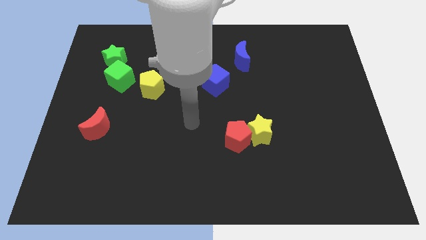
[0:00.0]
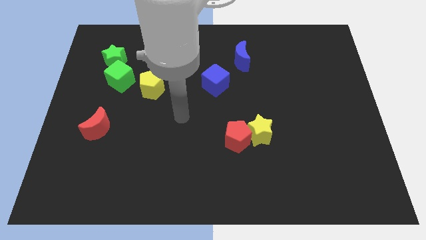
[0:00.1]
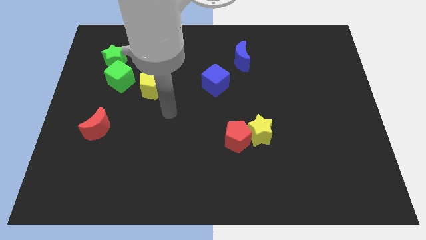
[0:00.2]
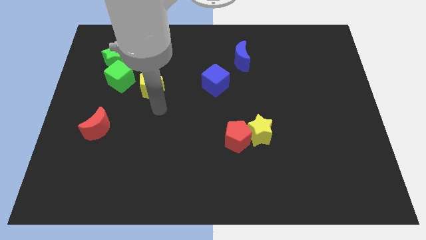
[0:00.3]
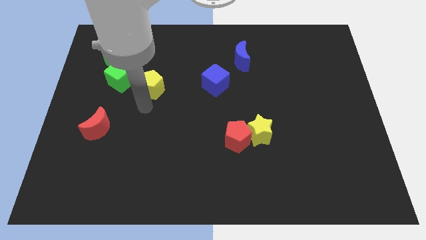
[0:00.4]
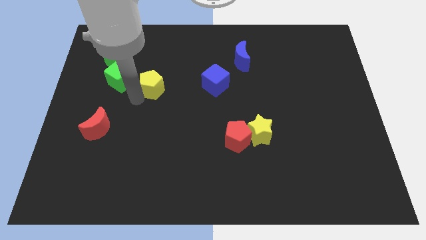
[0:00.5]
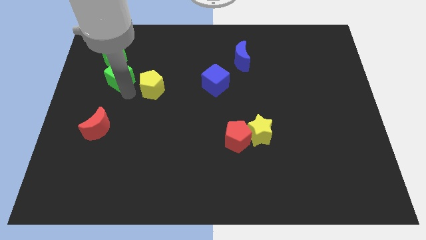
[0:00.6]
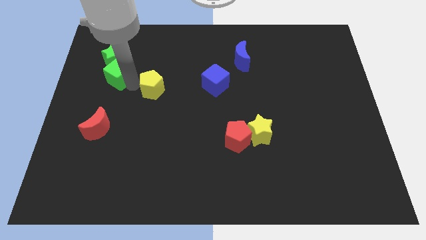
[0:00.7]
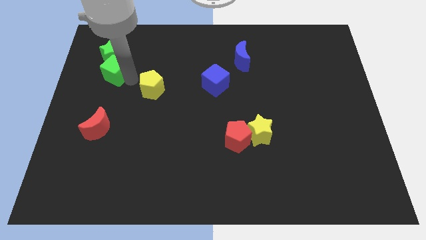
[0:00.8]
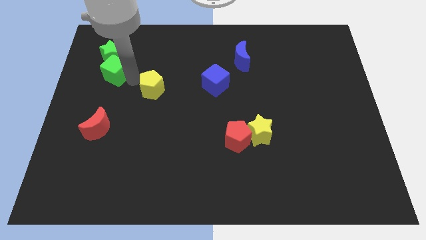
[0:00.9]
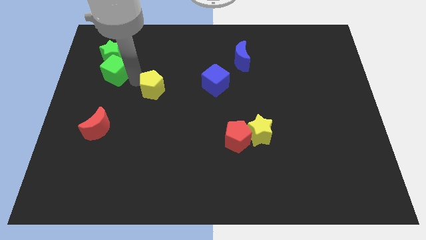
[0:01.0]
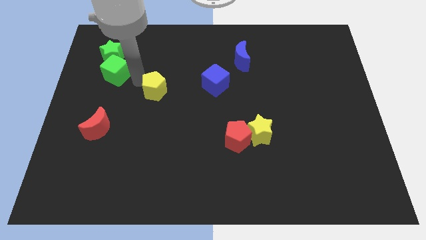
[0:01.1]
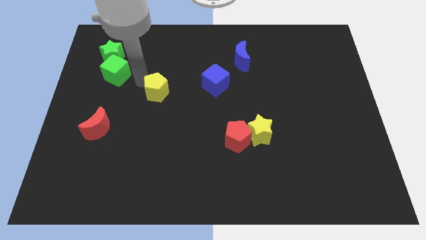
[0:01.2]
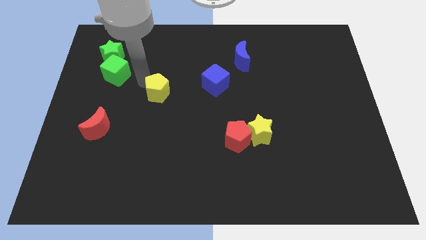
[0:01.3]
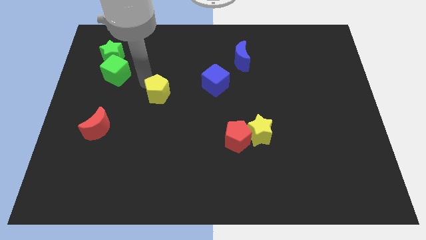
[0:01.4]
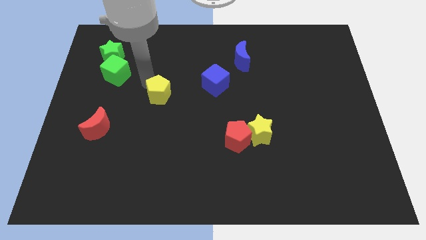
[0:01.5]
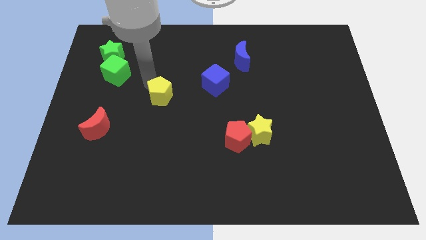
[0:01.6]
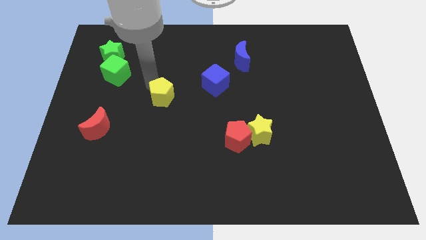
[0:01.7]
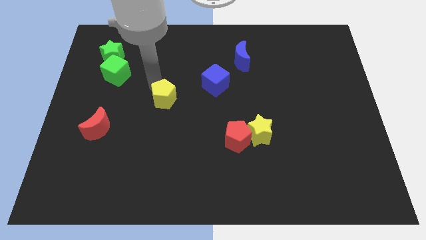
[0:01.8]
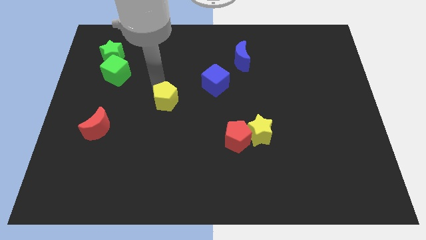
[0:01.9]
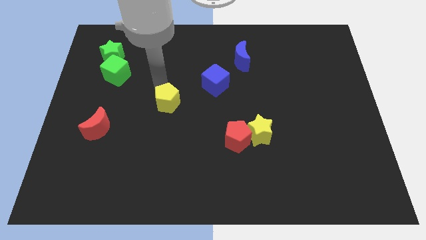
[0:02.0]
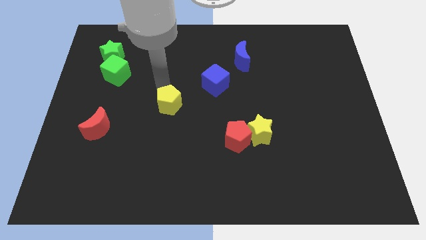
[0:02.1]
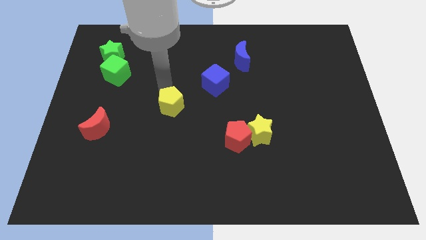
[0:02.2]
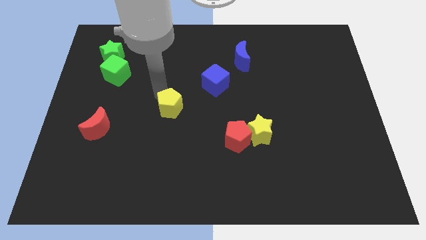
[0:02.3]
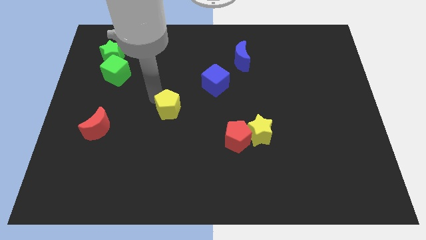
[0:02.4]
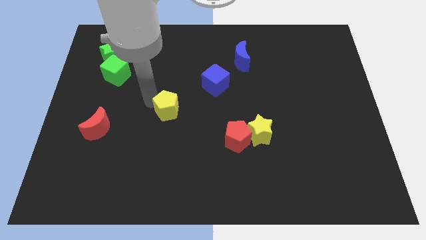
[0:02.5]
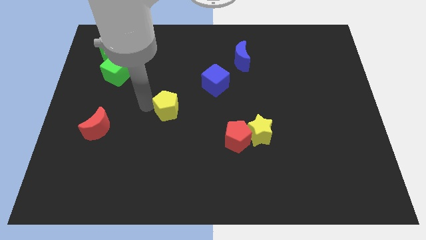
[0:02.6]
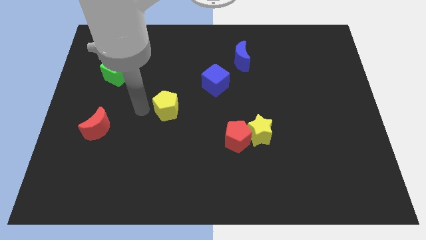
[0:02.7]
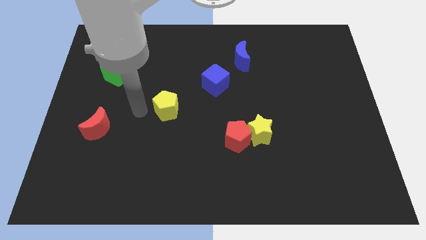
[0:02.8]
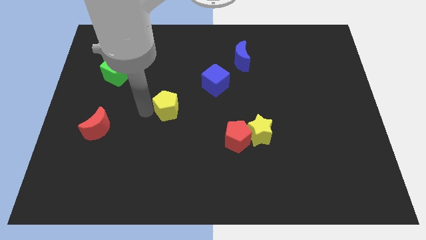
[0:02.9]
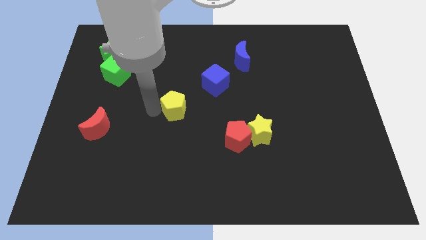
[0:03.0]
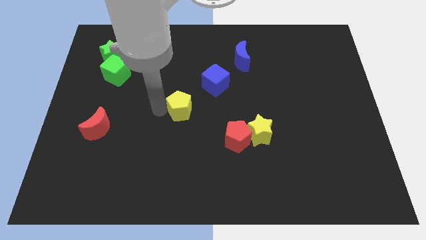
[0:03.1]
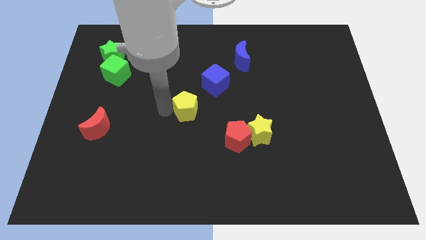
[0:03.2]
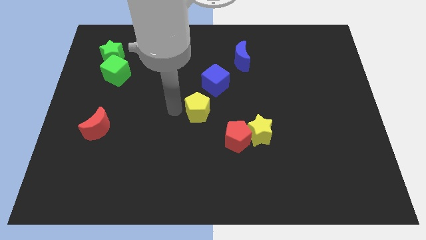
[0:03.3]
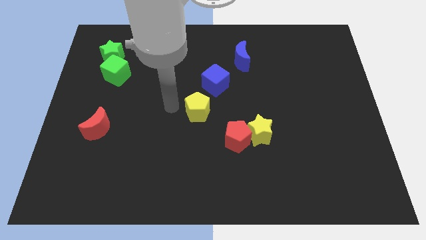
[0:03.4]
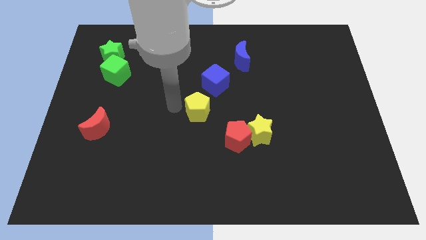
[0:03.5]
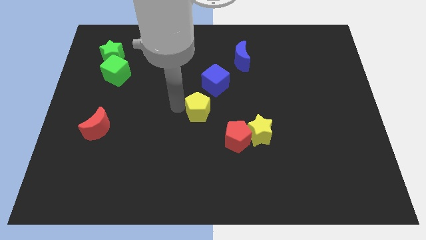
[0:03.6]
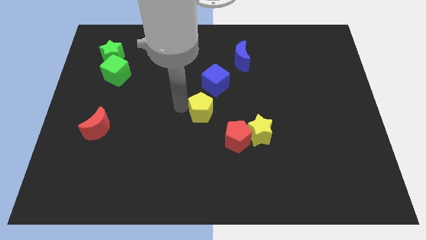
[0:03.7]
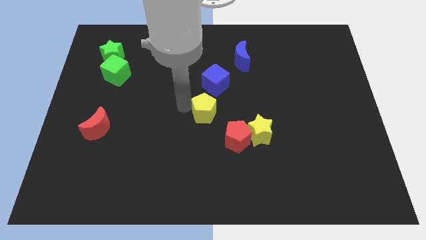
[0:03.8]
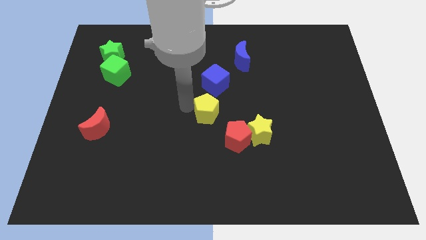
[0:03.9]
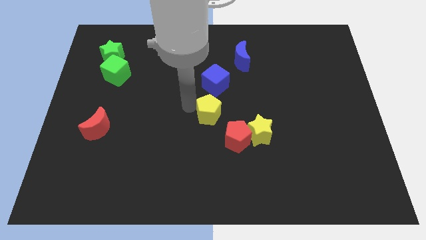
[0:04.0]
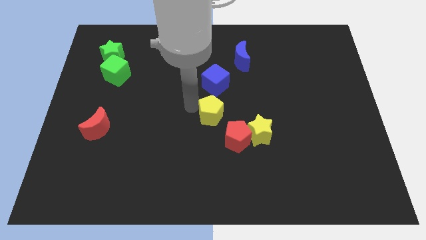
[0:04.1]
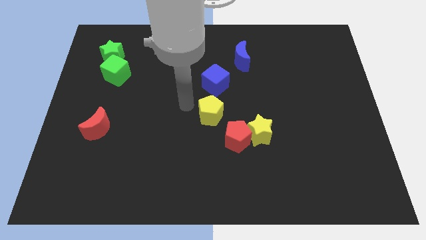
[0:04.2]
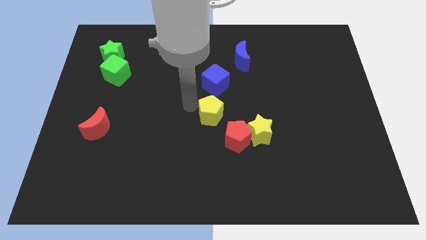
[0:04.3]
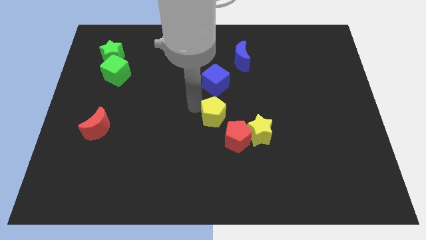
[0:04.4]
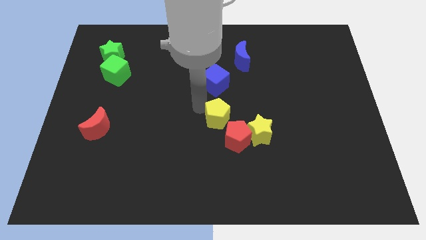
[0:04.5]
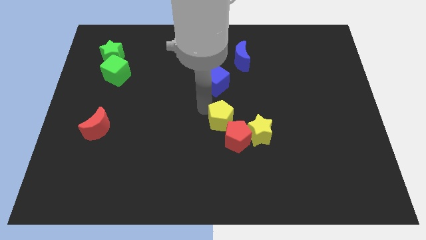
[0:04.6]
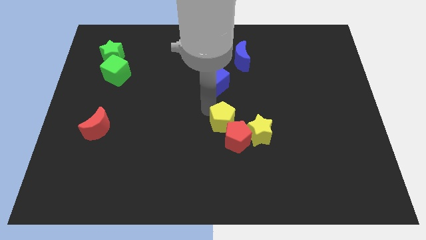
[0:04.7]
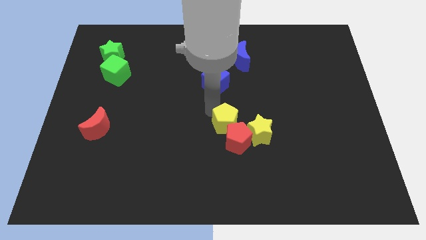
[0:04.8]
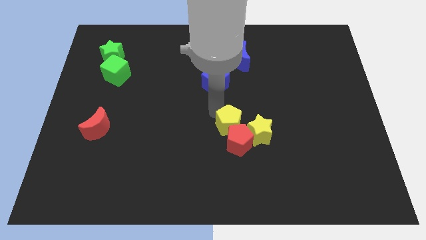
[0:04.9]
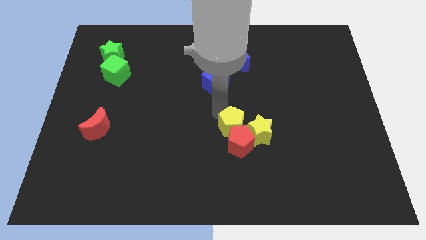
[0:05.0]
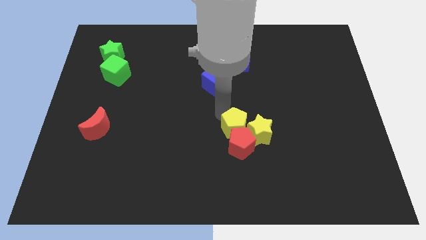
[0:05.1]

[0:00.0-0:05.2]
push the yellow pentagon to the yellow star
